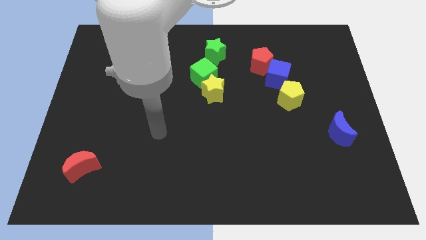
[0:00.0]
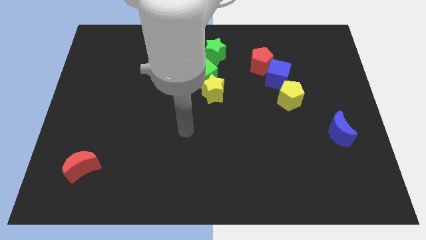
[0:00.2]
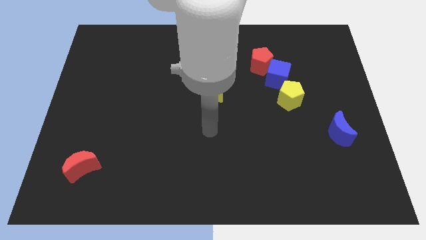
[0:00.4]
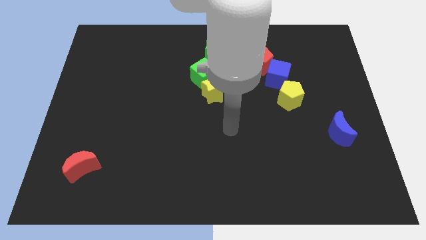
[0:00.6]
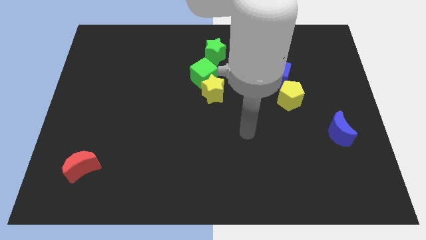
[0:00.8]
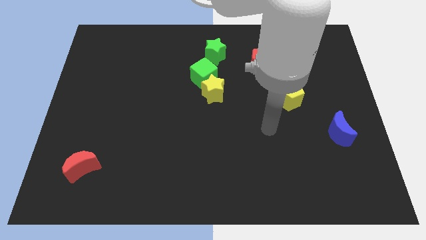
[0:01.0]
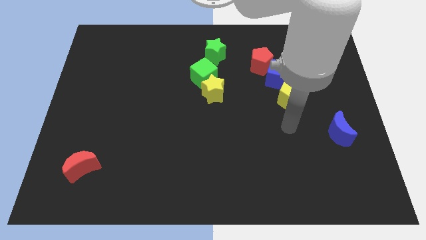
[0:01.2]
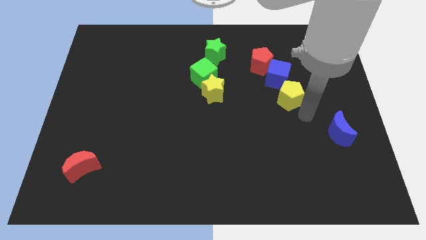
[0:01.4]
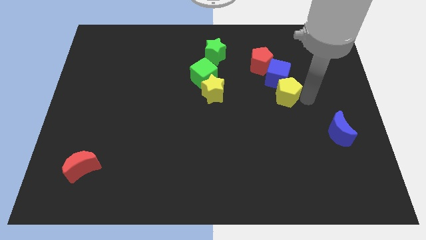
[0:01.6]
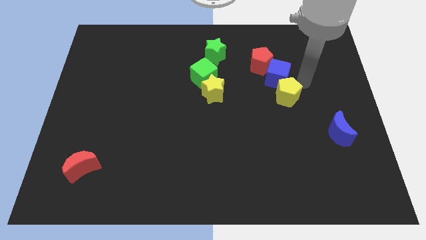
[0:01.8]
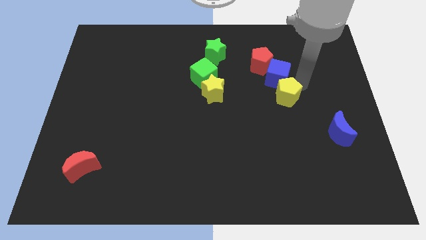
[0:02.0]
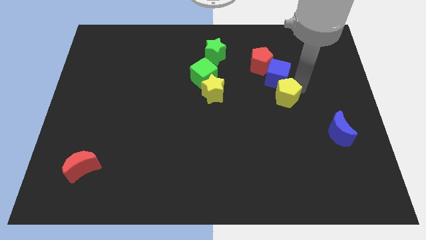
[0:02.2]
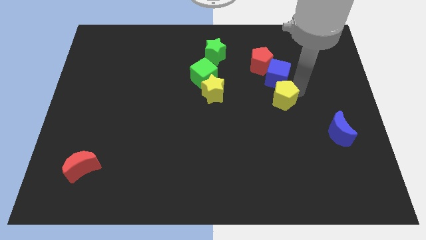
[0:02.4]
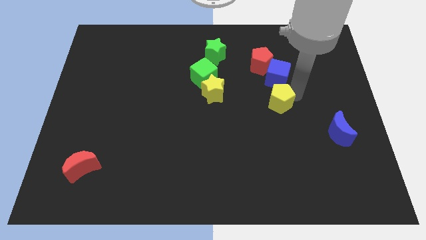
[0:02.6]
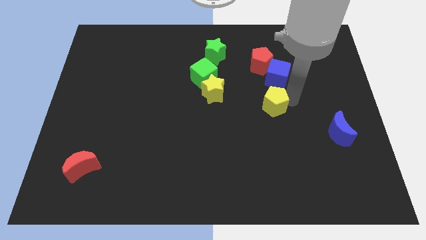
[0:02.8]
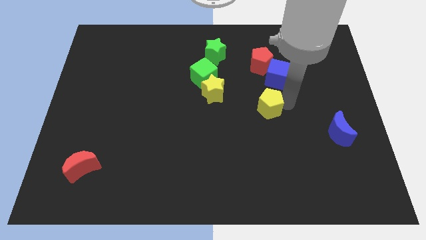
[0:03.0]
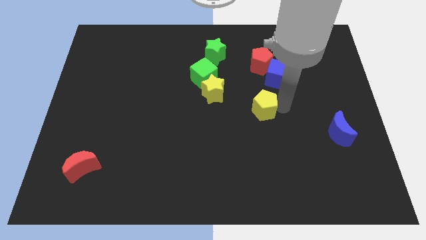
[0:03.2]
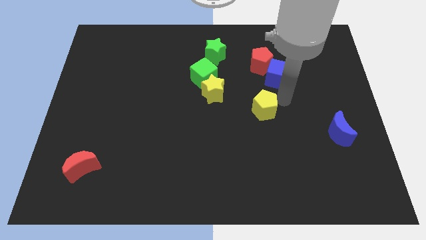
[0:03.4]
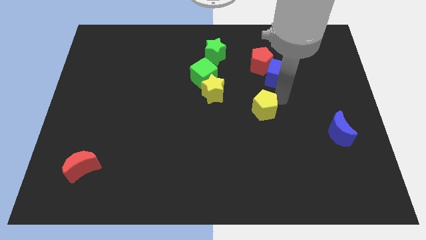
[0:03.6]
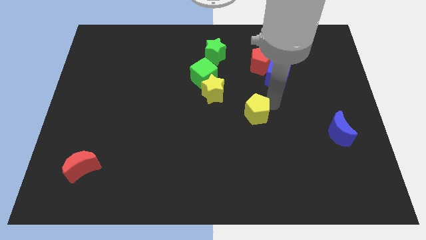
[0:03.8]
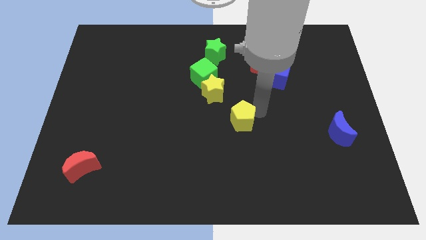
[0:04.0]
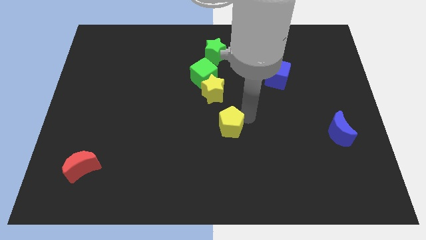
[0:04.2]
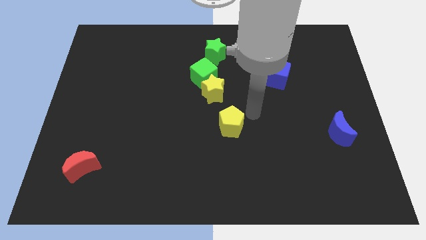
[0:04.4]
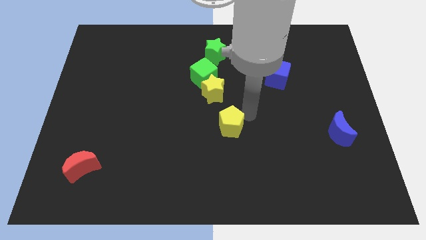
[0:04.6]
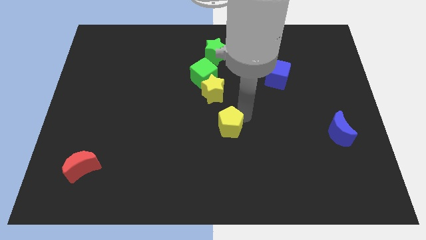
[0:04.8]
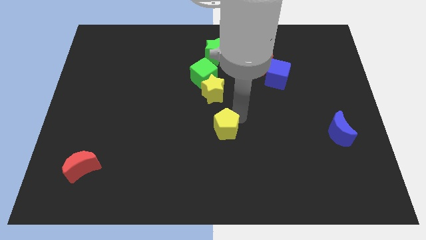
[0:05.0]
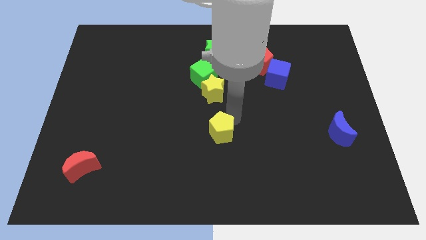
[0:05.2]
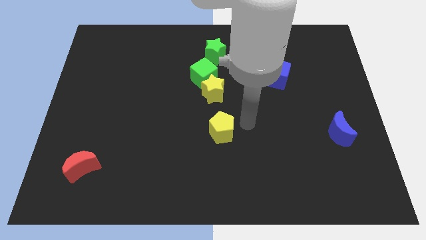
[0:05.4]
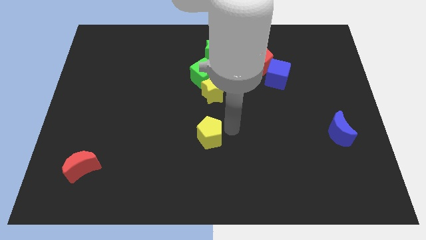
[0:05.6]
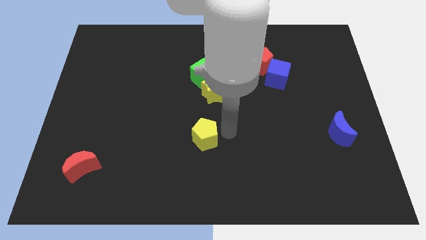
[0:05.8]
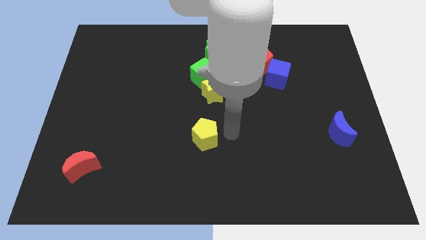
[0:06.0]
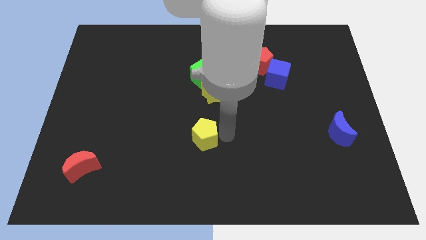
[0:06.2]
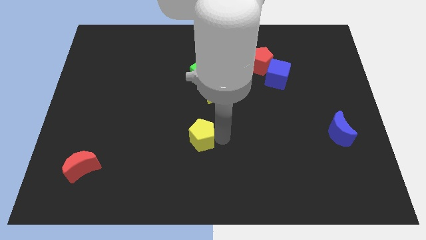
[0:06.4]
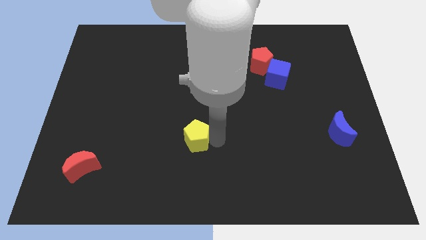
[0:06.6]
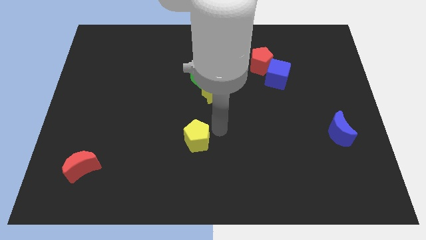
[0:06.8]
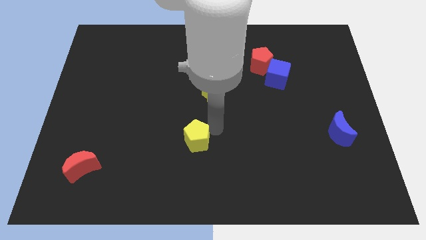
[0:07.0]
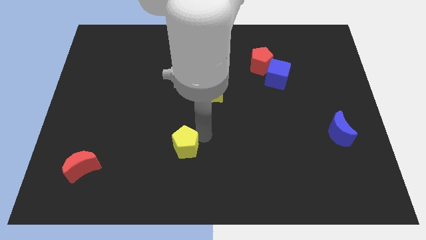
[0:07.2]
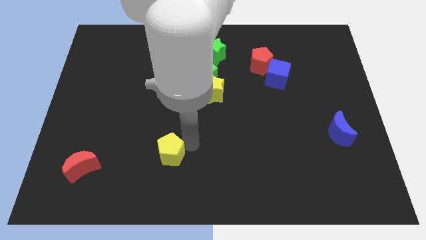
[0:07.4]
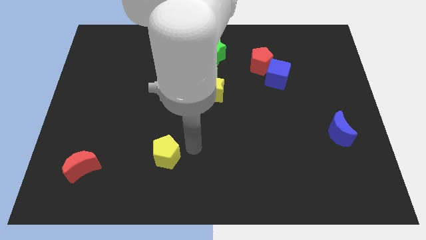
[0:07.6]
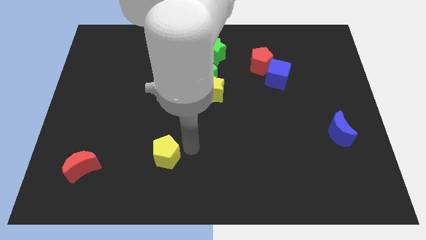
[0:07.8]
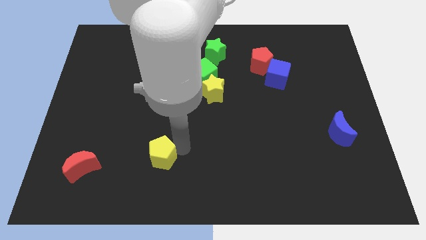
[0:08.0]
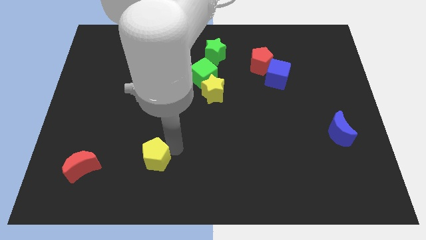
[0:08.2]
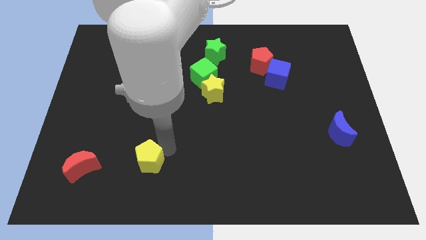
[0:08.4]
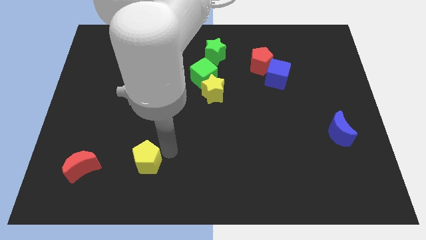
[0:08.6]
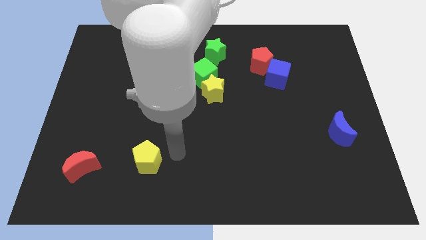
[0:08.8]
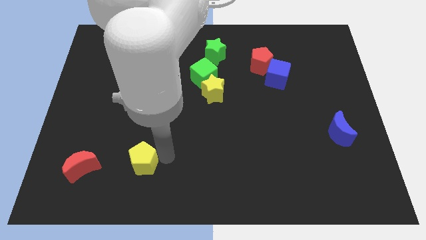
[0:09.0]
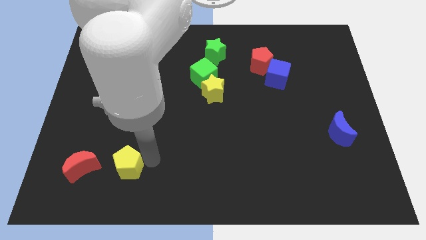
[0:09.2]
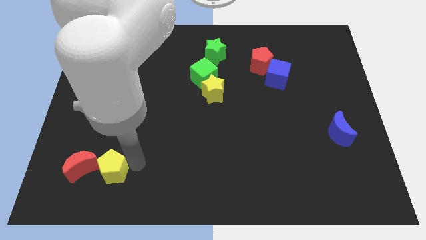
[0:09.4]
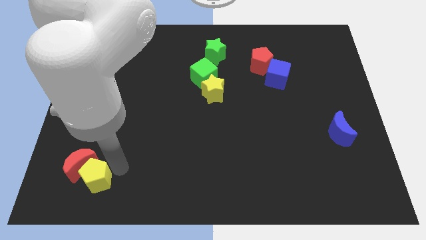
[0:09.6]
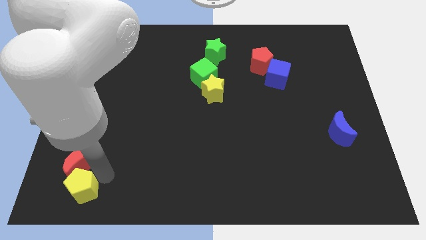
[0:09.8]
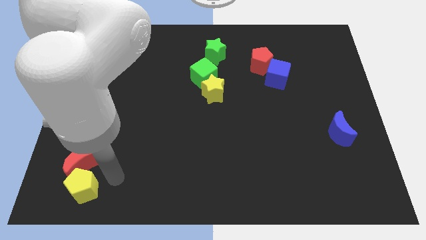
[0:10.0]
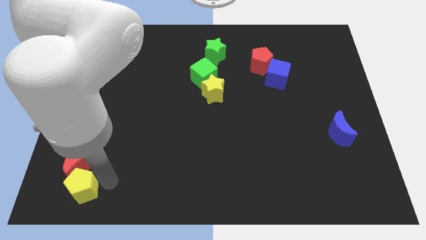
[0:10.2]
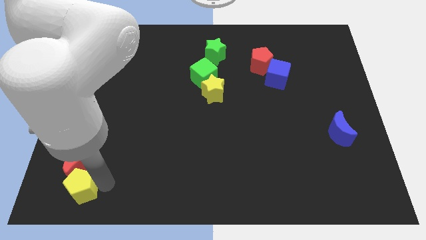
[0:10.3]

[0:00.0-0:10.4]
move the yellow pentagon to the bottom left corner

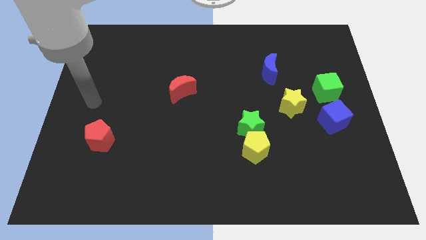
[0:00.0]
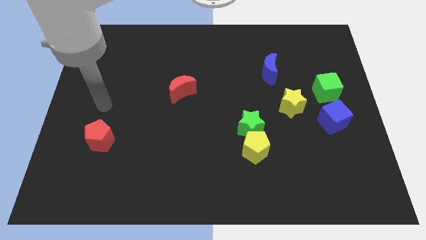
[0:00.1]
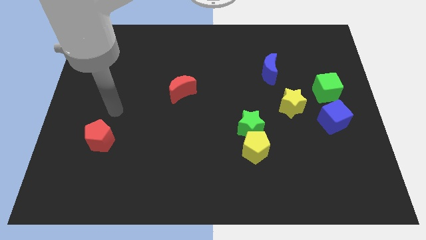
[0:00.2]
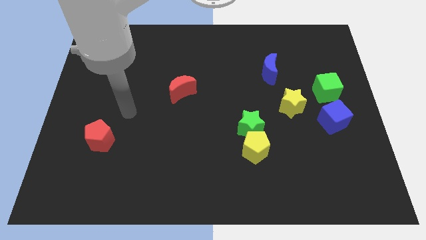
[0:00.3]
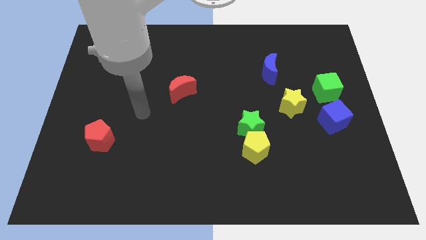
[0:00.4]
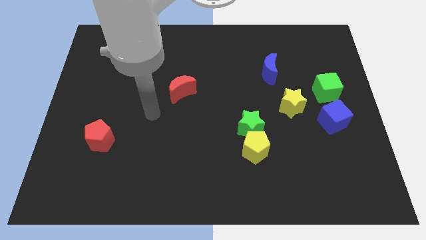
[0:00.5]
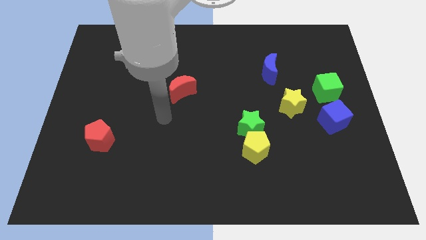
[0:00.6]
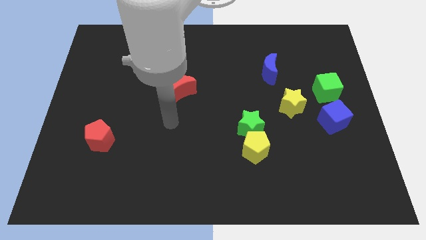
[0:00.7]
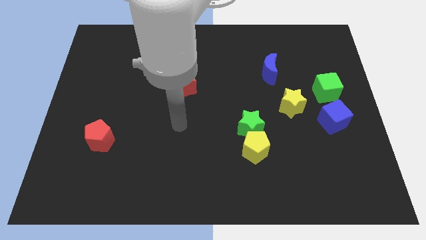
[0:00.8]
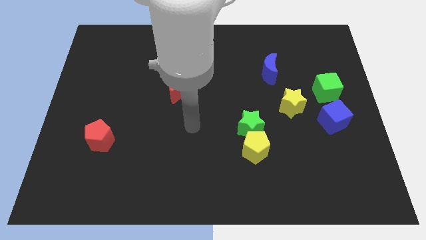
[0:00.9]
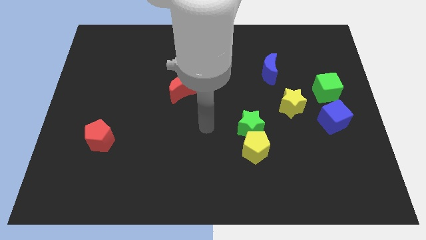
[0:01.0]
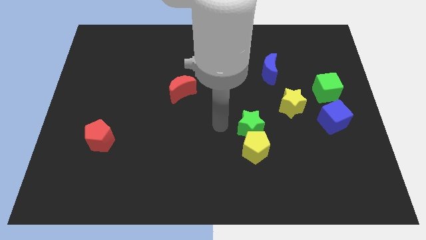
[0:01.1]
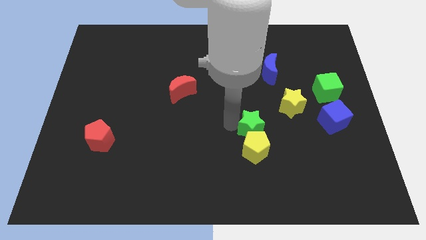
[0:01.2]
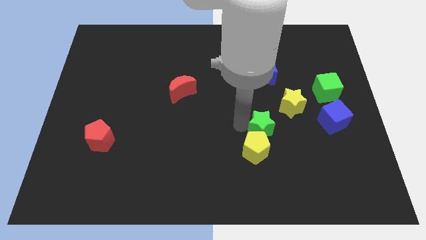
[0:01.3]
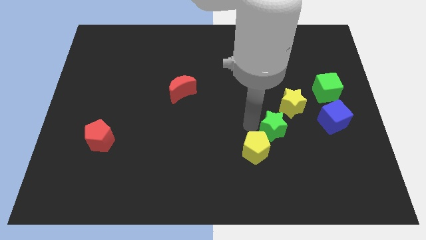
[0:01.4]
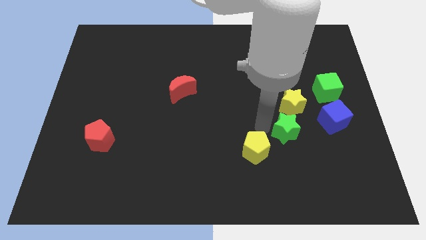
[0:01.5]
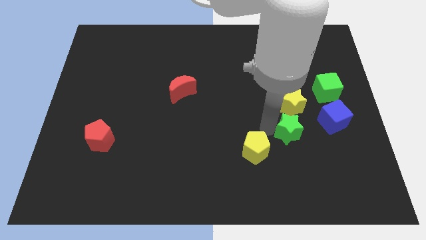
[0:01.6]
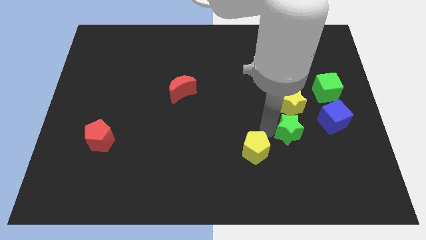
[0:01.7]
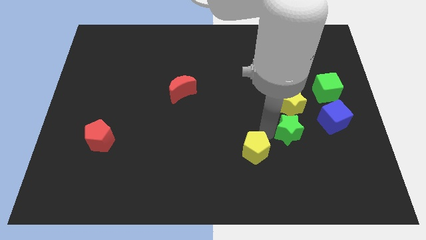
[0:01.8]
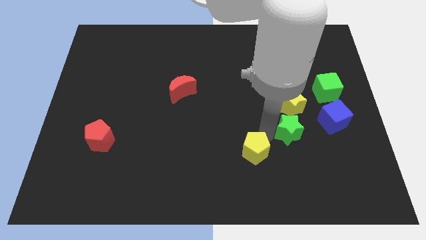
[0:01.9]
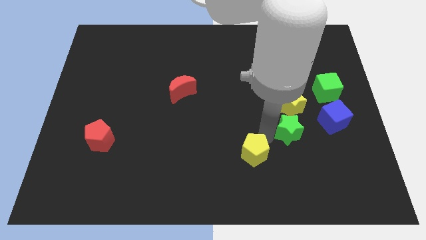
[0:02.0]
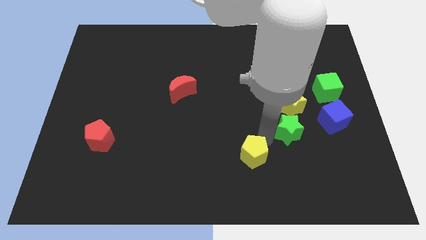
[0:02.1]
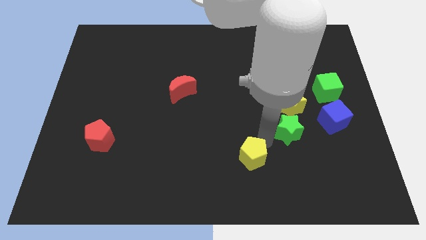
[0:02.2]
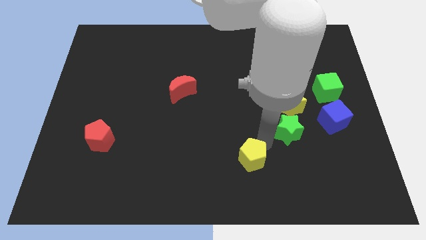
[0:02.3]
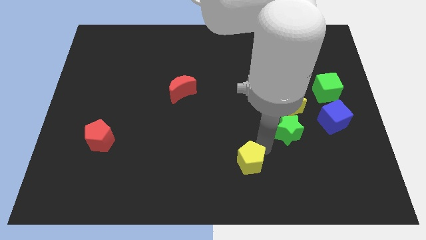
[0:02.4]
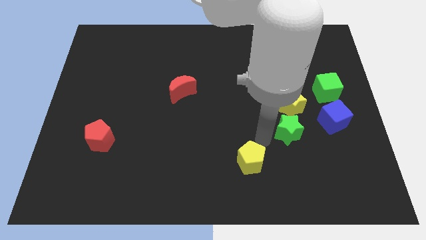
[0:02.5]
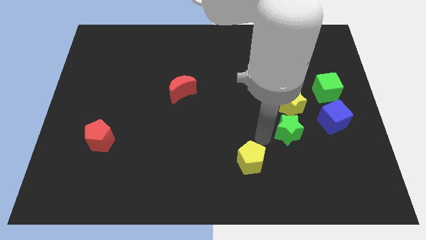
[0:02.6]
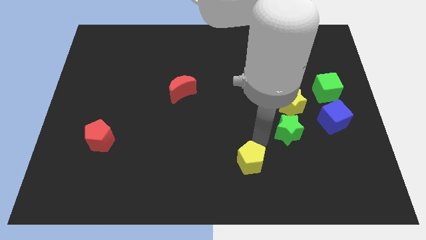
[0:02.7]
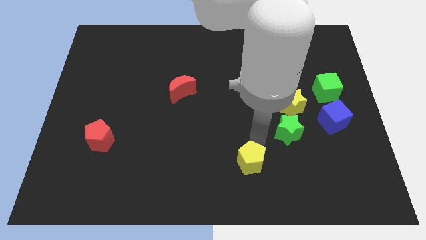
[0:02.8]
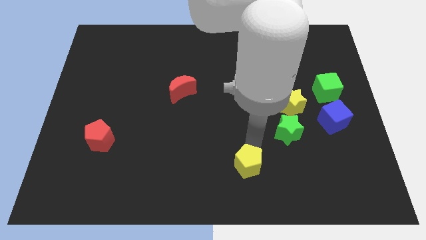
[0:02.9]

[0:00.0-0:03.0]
move the yellow pentagon to the bottom
